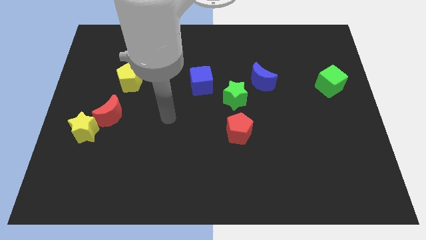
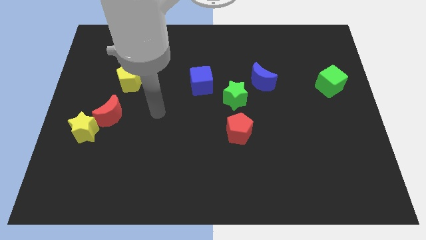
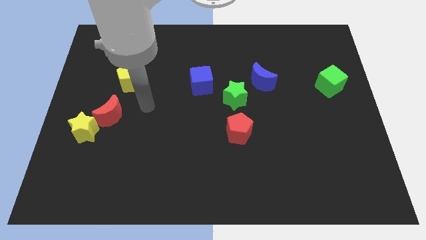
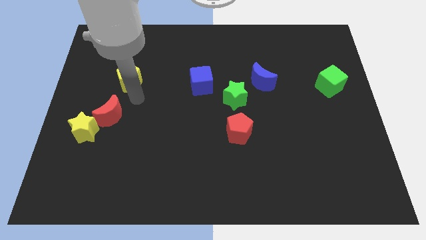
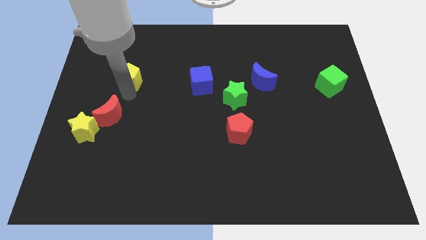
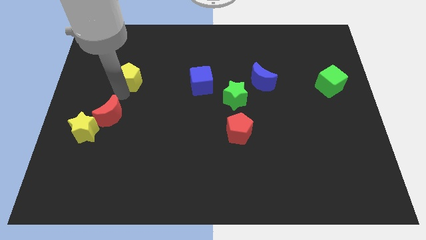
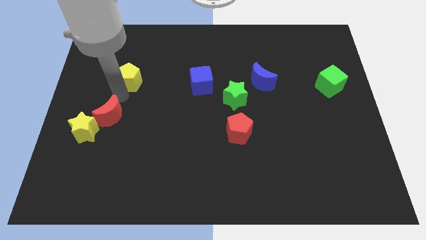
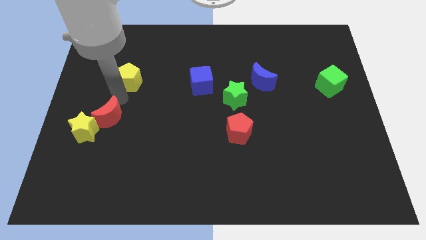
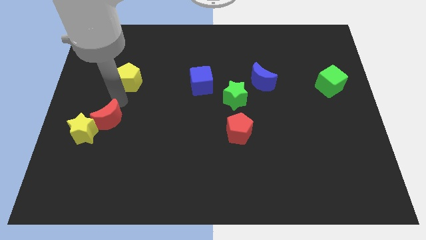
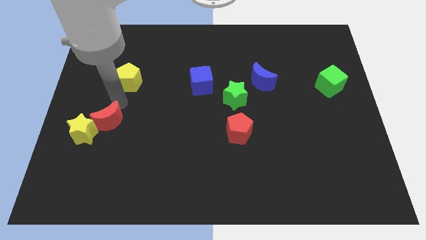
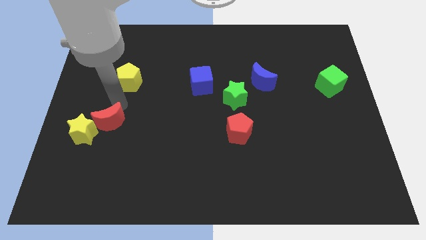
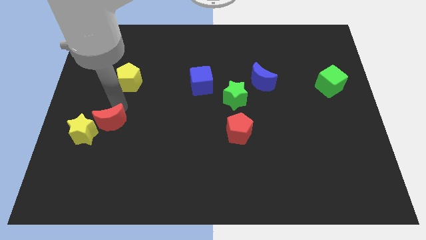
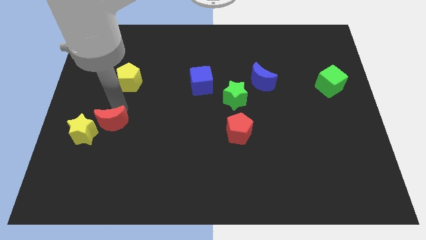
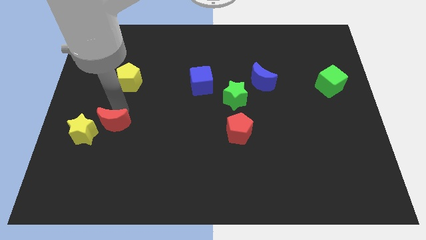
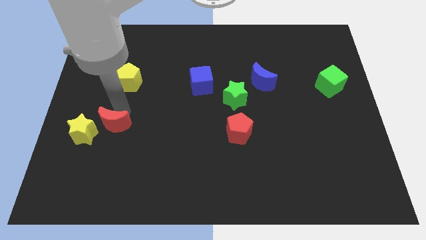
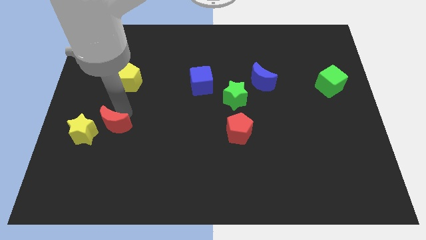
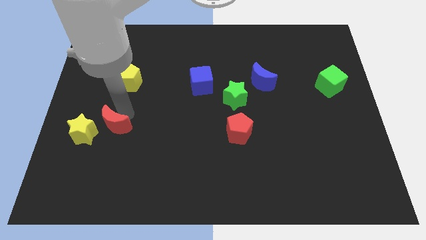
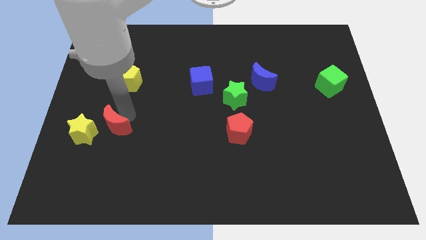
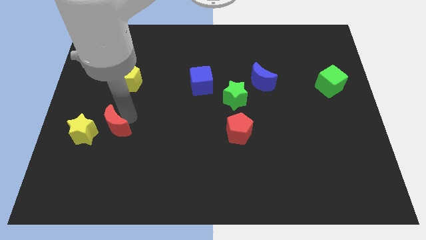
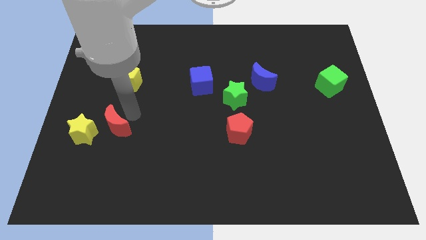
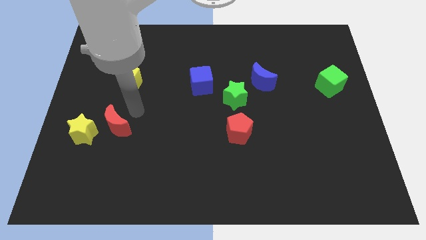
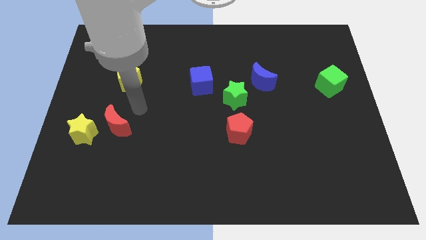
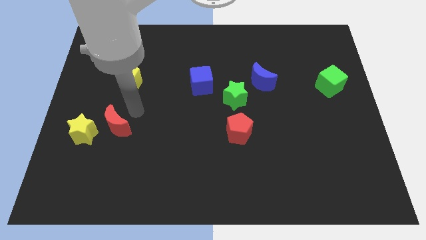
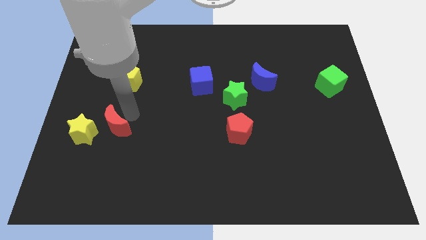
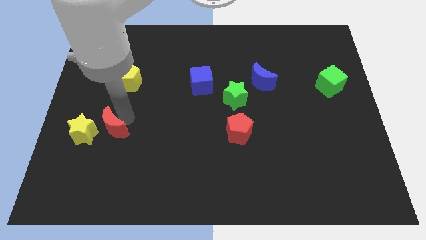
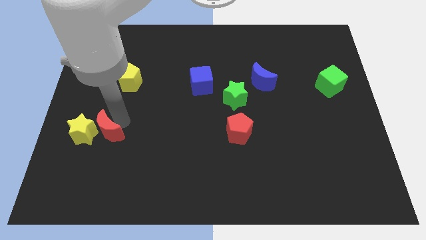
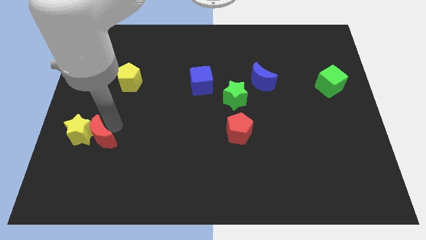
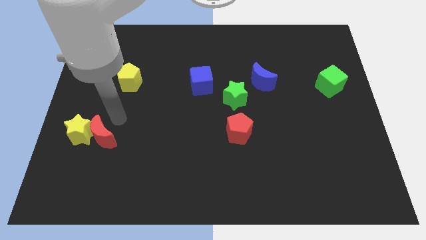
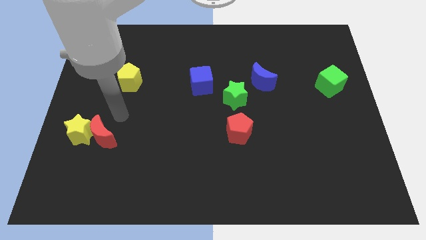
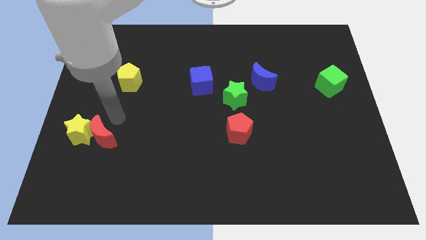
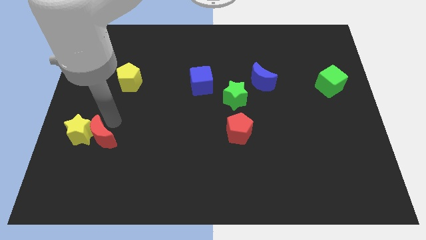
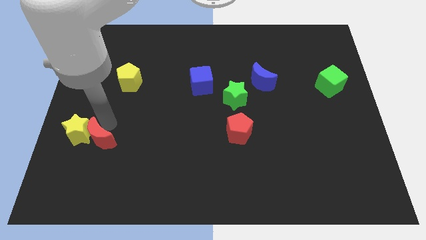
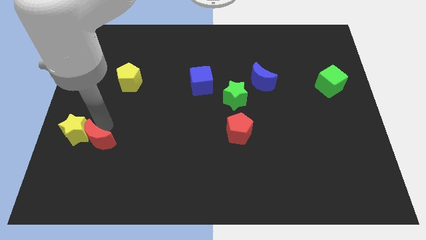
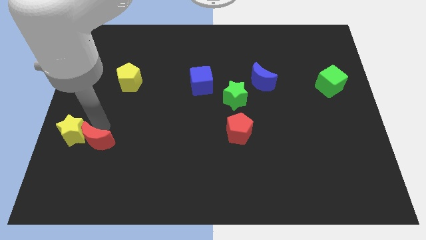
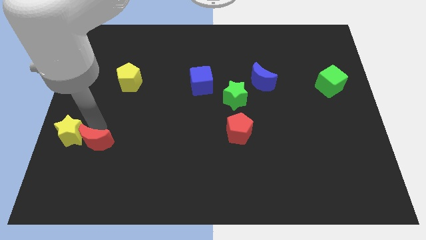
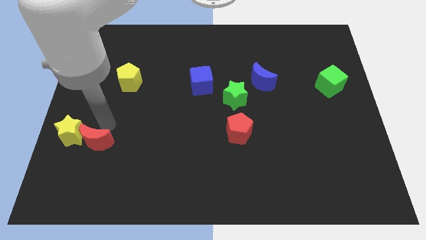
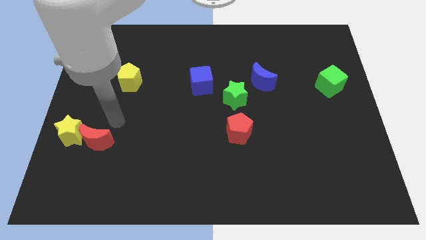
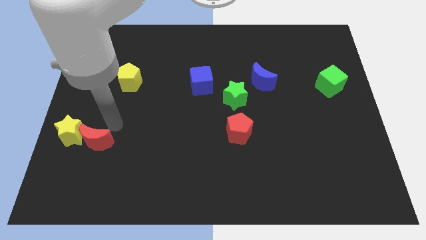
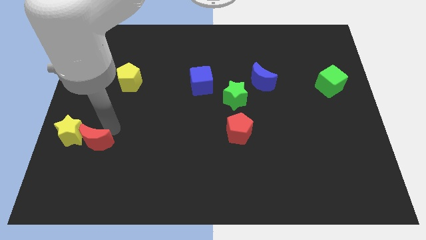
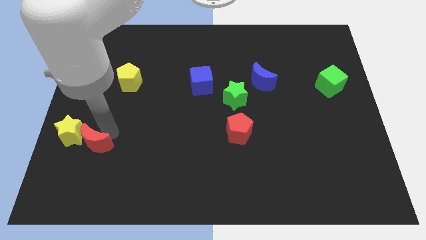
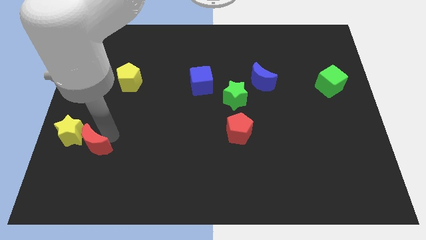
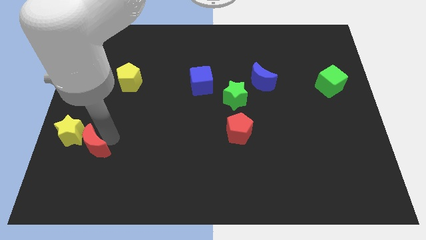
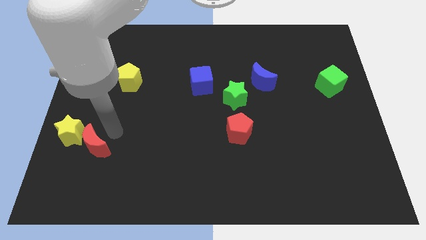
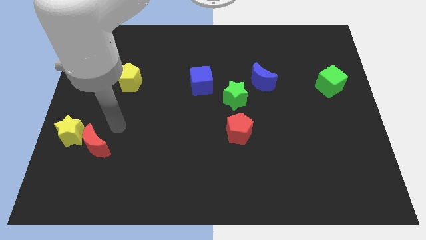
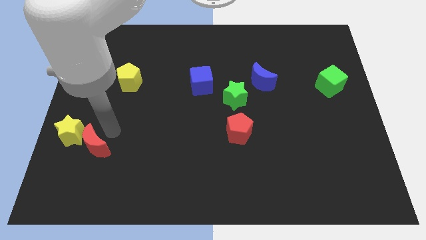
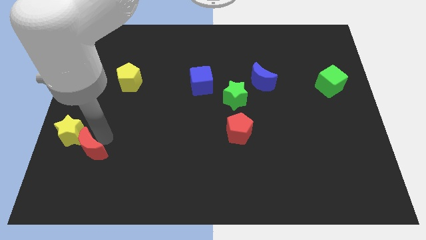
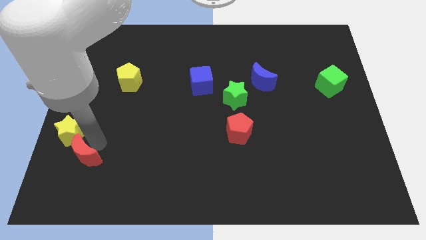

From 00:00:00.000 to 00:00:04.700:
push the red moon to the bottom of the yellow star

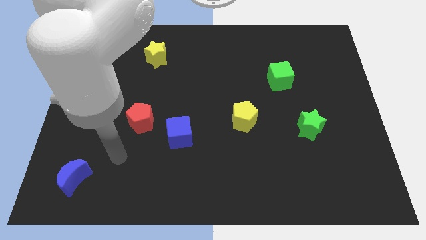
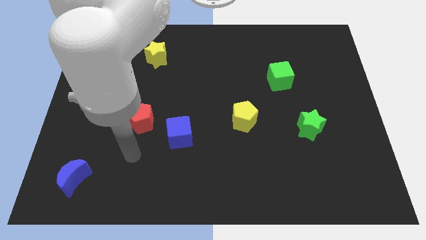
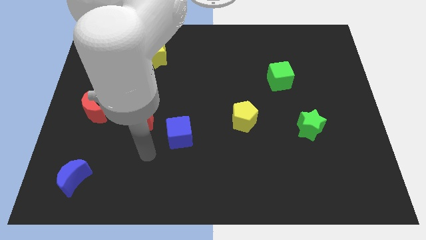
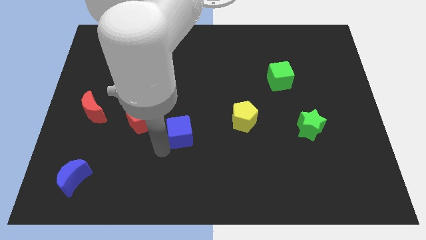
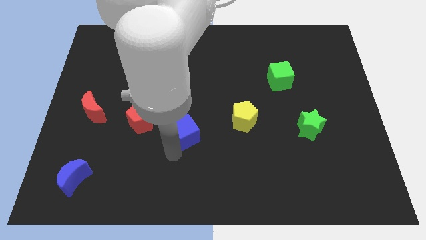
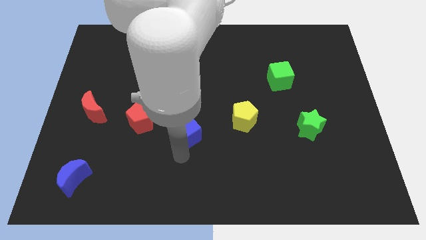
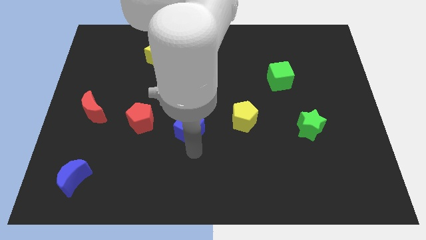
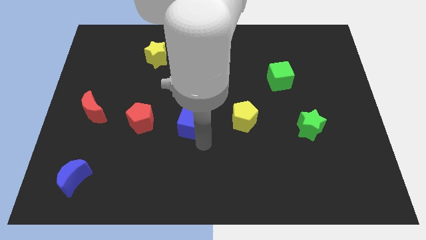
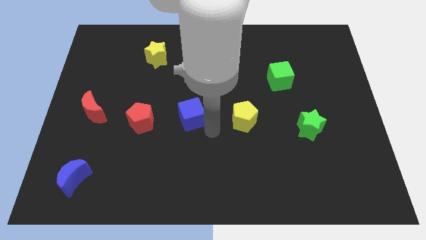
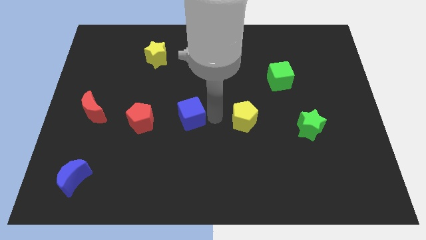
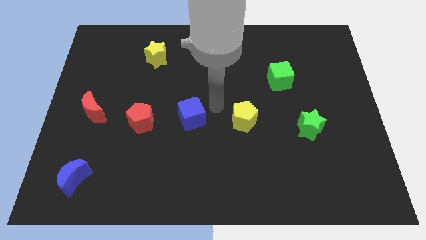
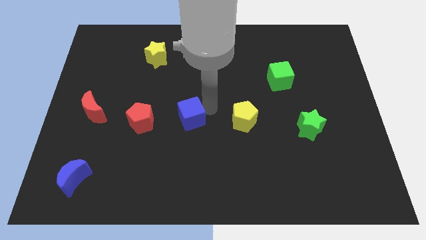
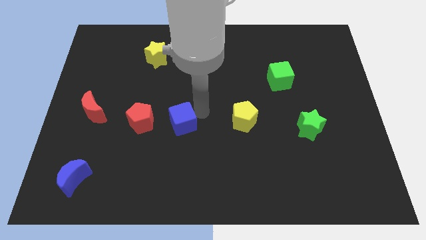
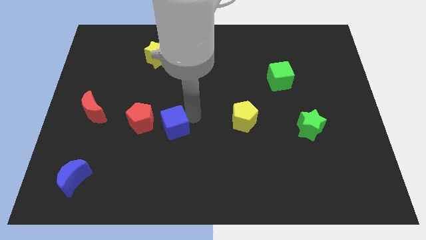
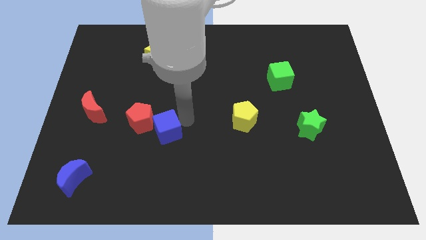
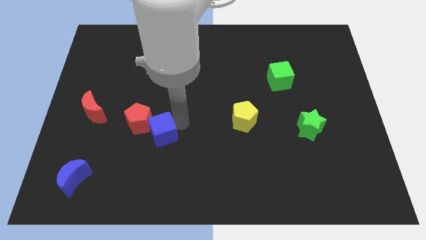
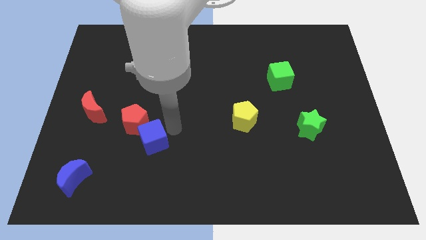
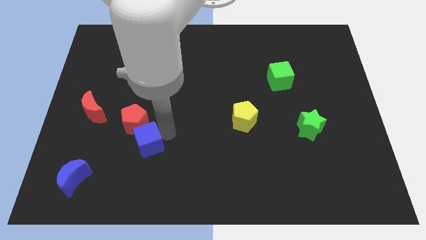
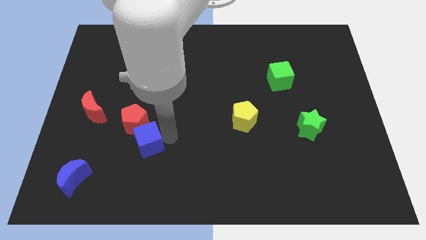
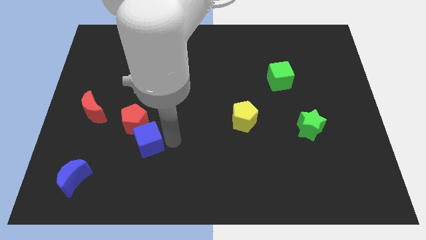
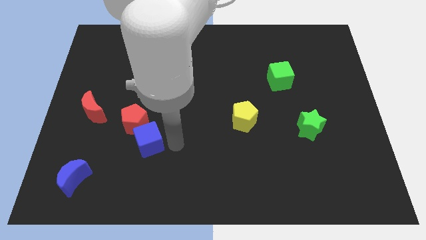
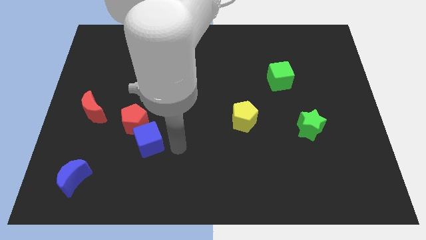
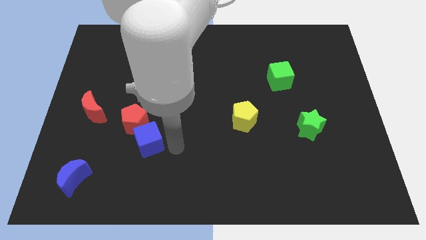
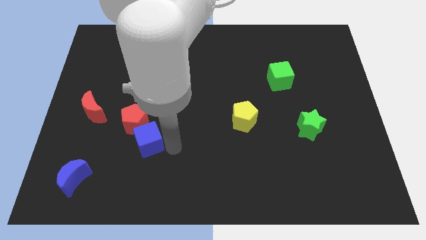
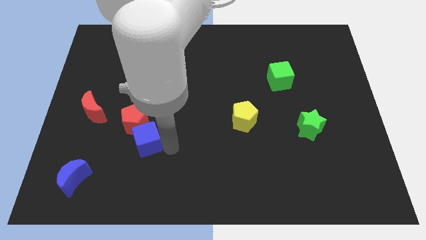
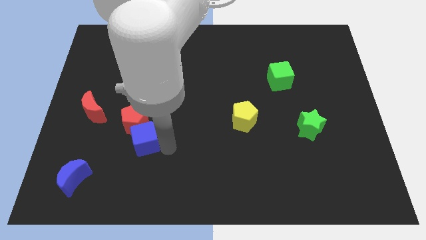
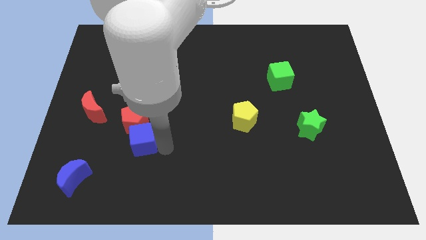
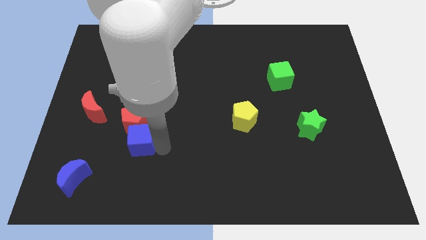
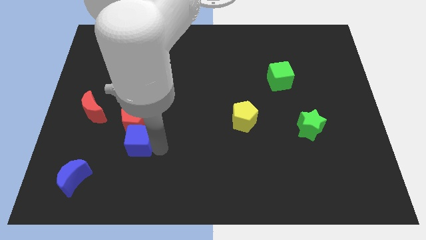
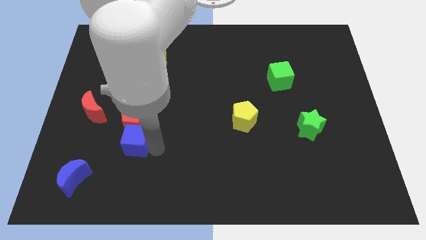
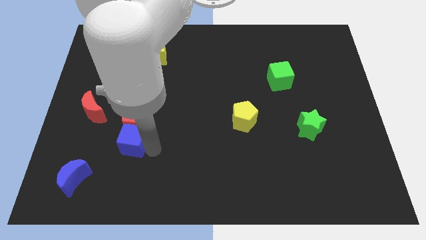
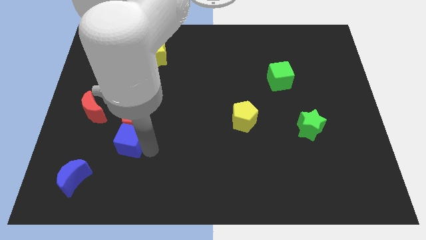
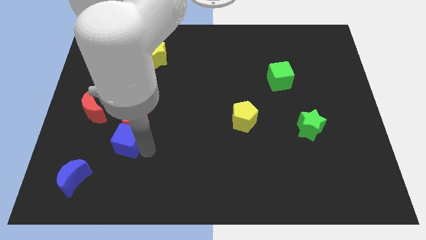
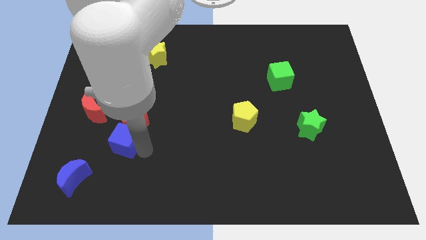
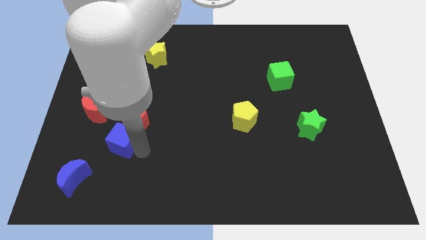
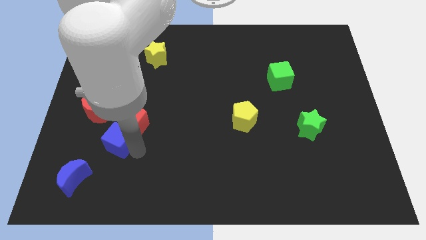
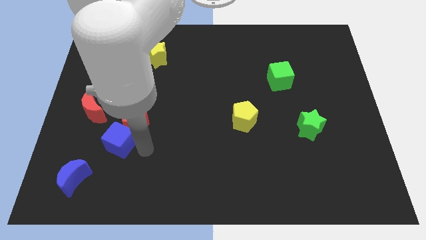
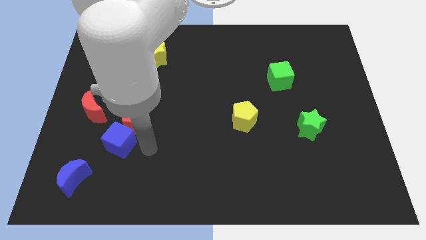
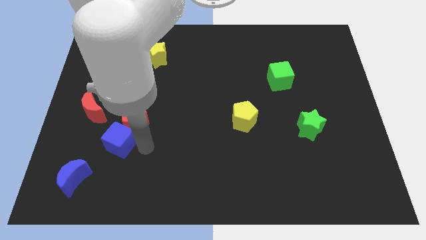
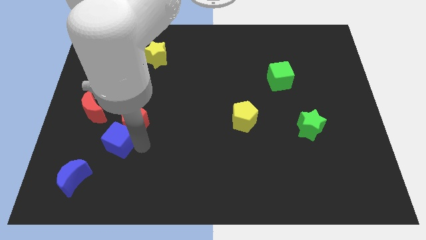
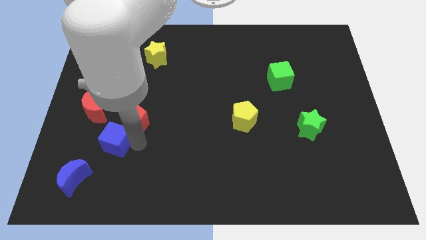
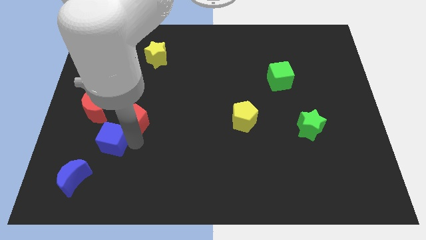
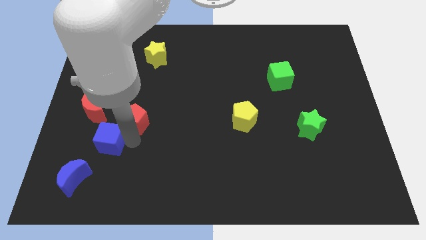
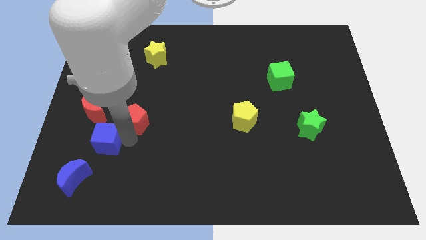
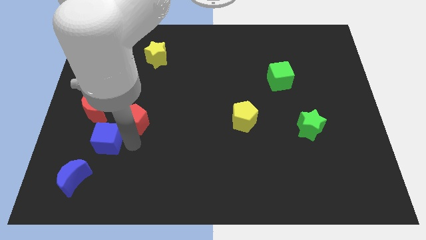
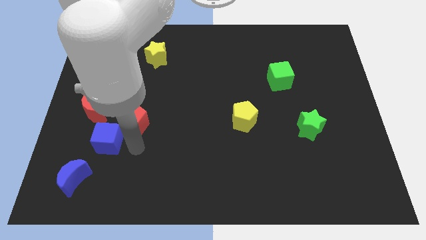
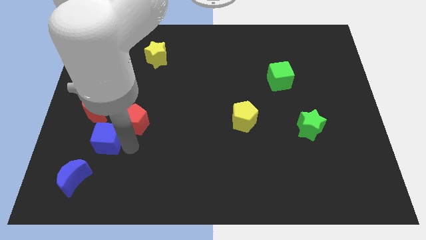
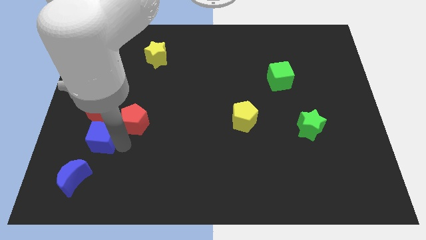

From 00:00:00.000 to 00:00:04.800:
put the blue cube to the top side of the blue moon
